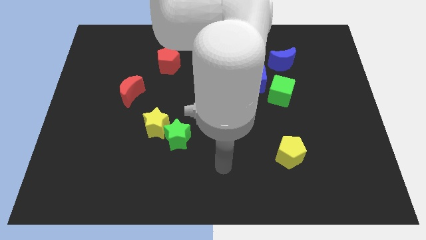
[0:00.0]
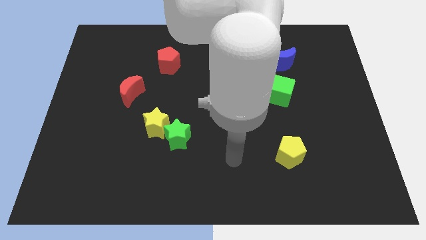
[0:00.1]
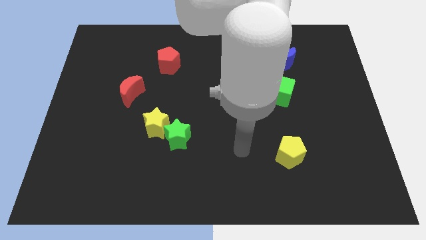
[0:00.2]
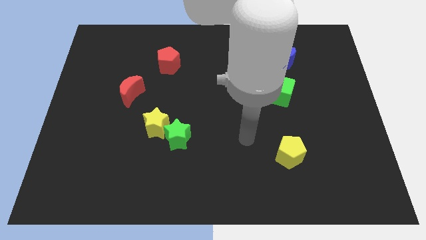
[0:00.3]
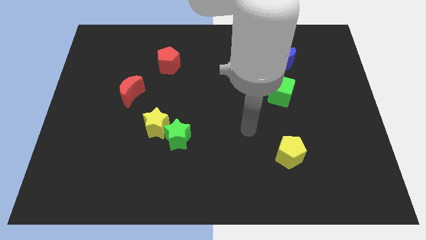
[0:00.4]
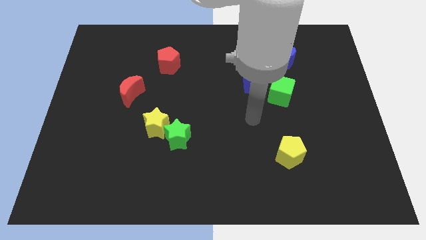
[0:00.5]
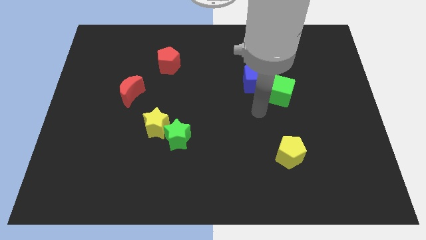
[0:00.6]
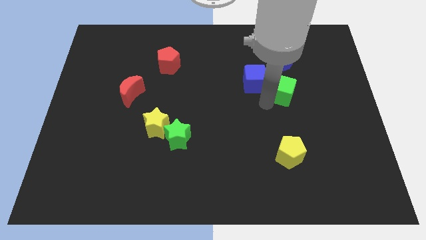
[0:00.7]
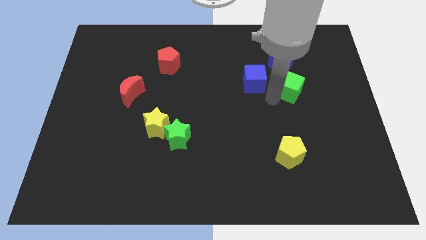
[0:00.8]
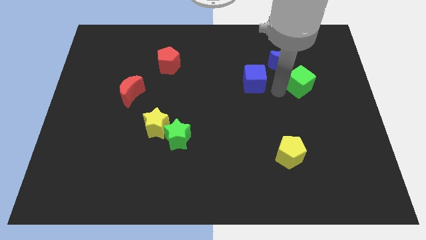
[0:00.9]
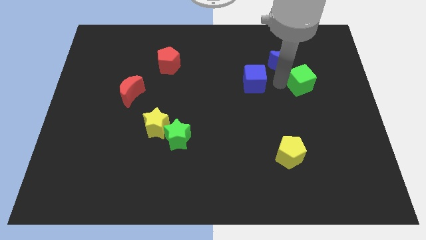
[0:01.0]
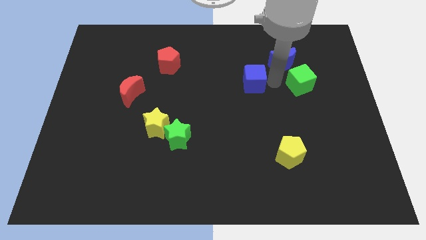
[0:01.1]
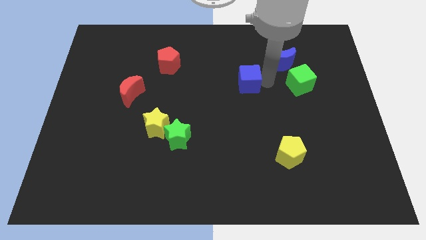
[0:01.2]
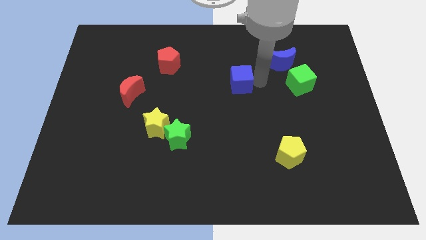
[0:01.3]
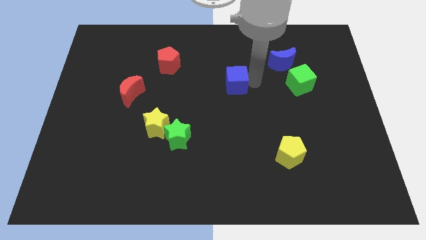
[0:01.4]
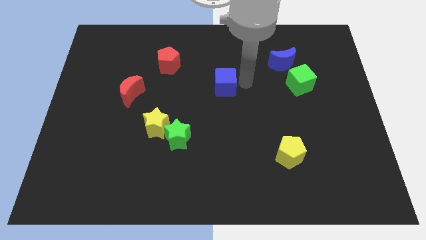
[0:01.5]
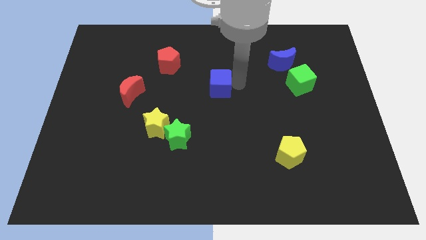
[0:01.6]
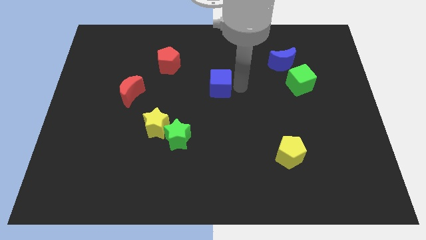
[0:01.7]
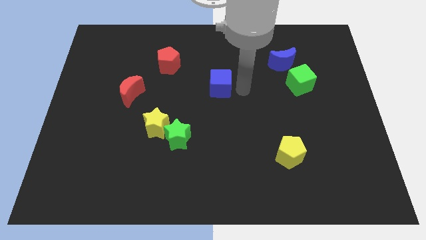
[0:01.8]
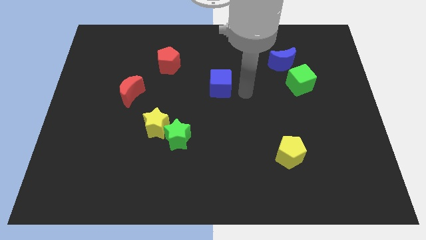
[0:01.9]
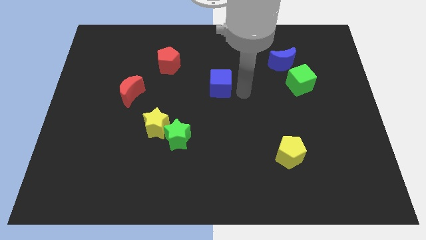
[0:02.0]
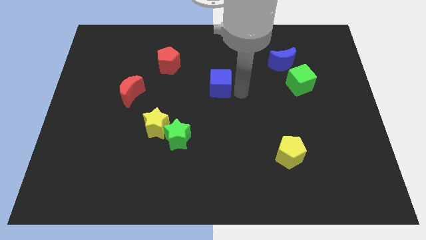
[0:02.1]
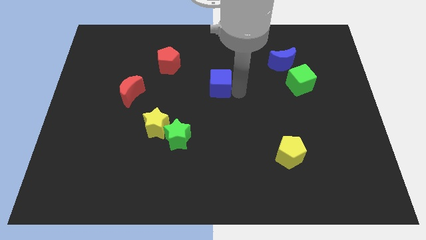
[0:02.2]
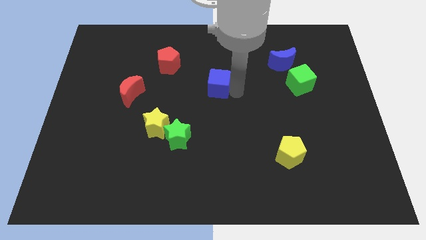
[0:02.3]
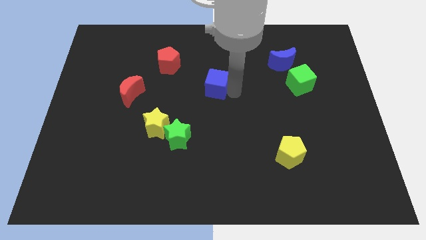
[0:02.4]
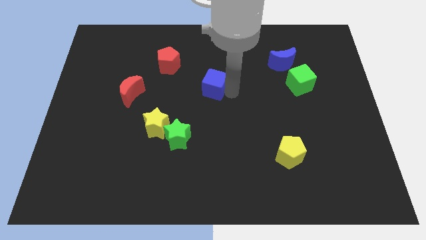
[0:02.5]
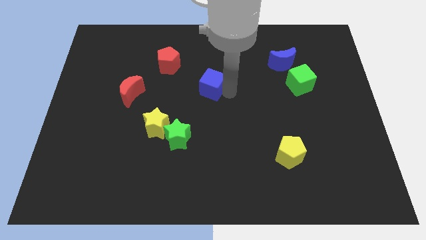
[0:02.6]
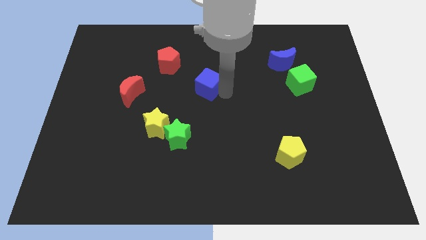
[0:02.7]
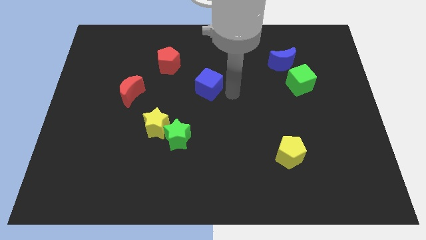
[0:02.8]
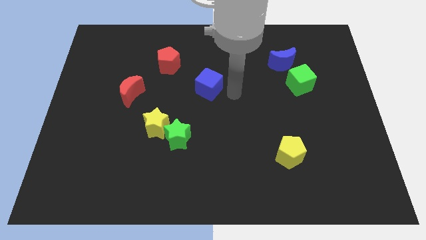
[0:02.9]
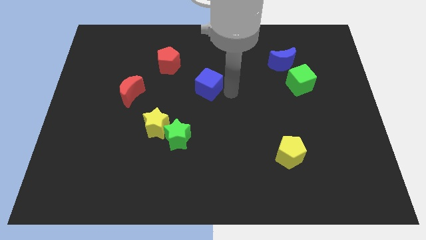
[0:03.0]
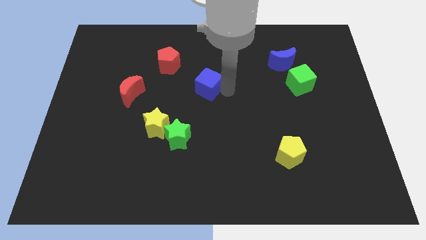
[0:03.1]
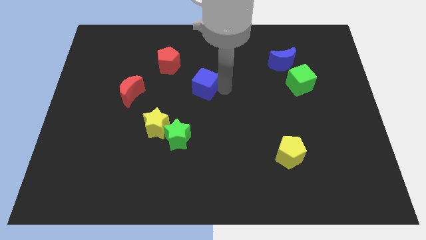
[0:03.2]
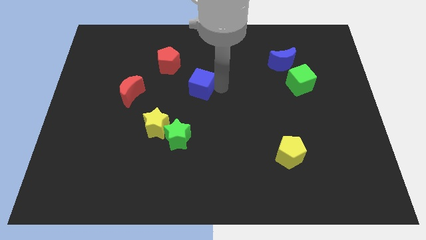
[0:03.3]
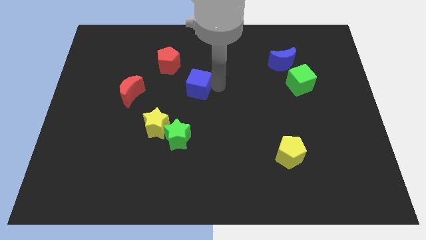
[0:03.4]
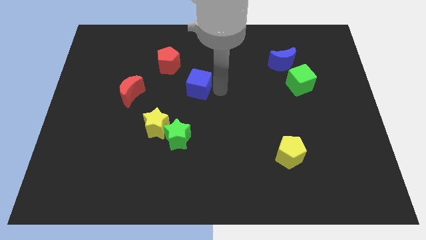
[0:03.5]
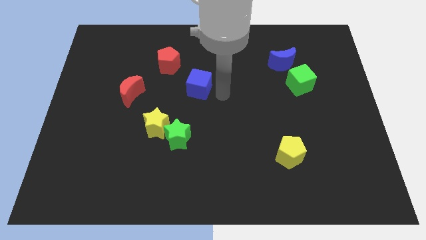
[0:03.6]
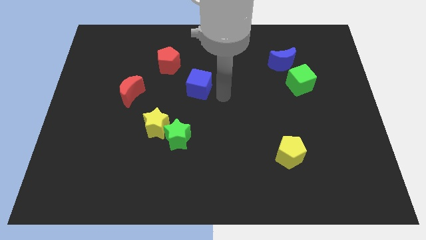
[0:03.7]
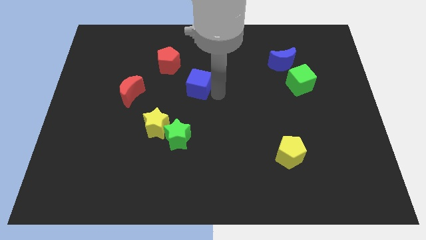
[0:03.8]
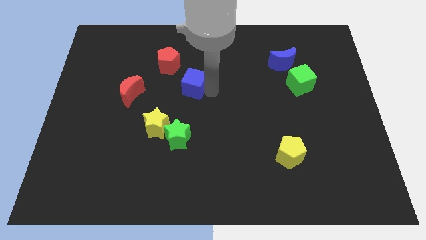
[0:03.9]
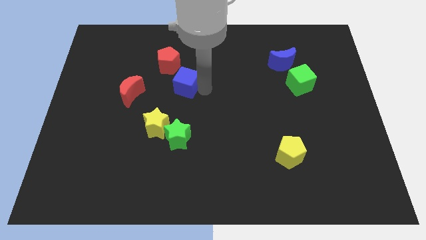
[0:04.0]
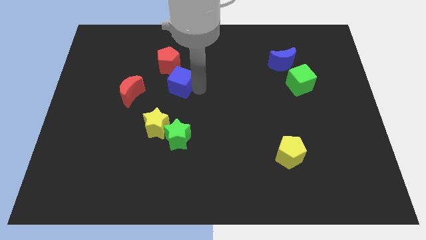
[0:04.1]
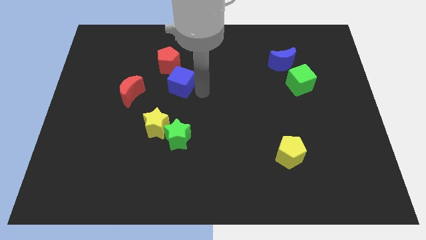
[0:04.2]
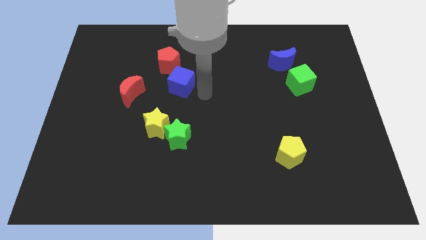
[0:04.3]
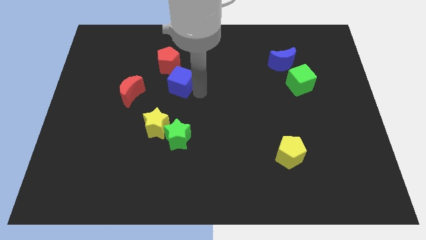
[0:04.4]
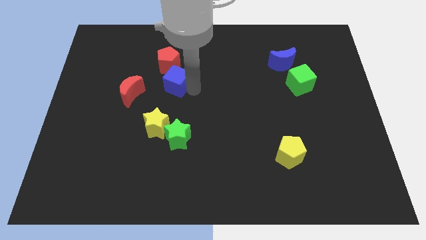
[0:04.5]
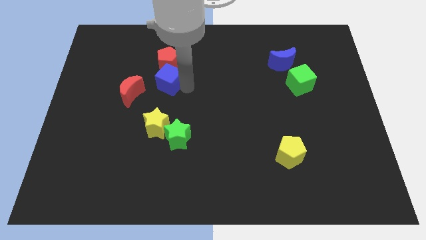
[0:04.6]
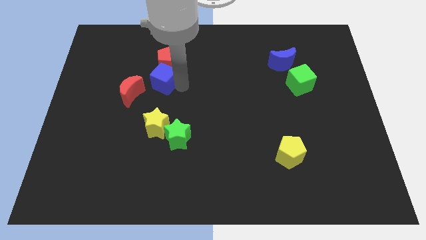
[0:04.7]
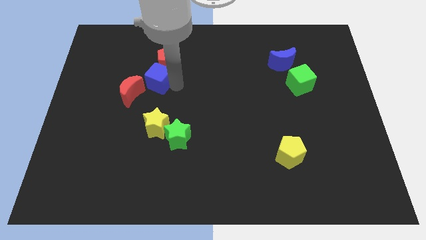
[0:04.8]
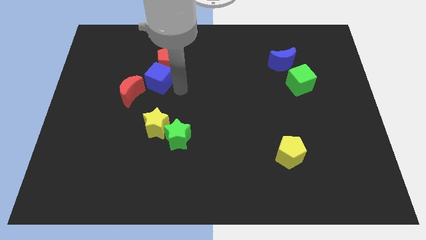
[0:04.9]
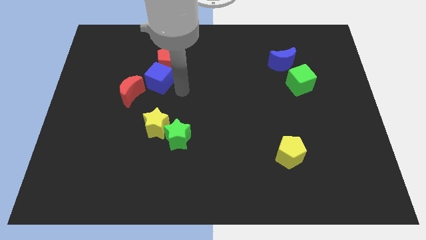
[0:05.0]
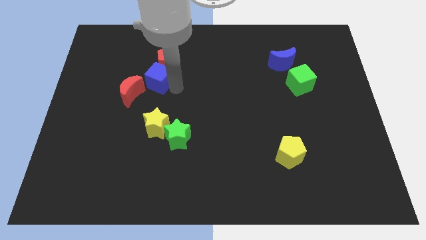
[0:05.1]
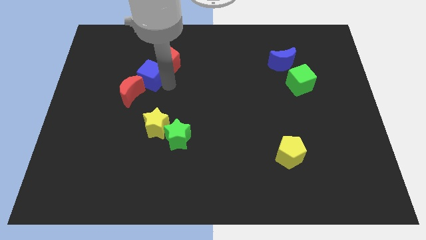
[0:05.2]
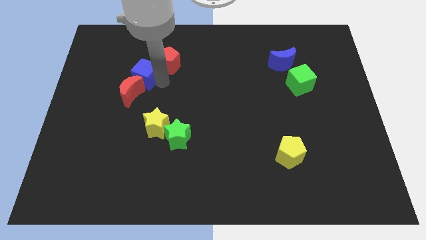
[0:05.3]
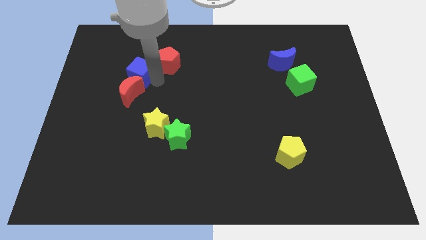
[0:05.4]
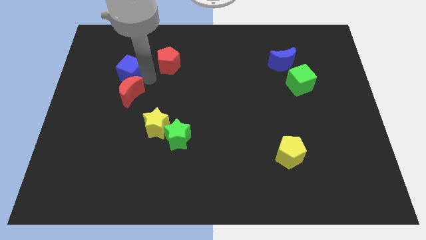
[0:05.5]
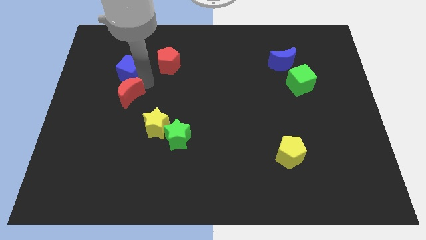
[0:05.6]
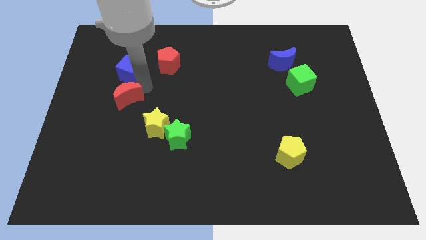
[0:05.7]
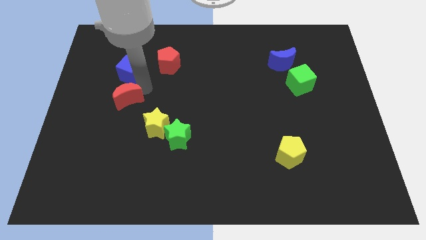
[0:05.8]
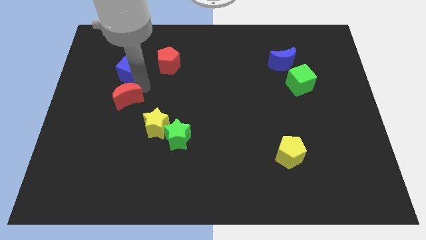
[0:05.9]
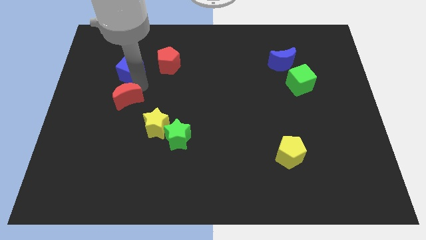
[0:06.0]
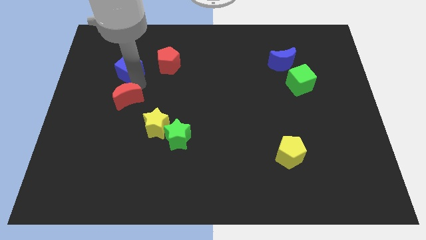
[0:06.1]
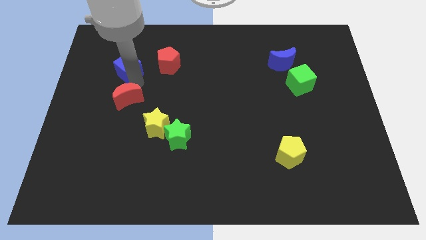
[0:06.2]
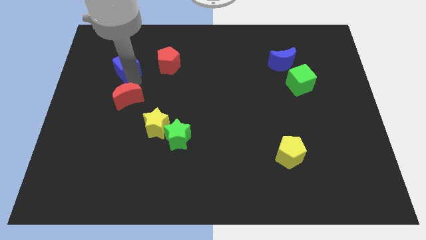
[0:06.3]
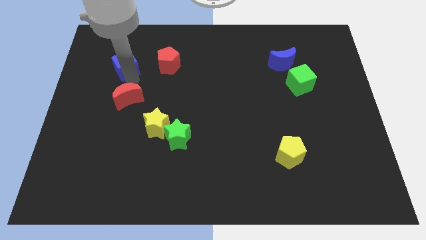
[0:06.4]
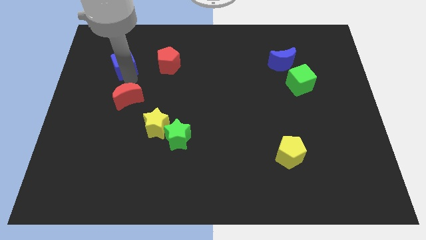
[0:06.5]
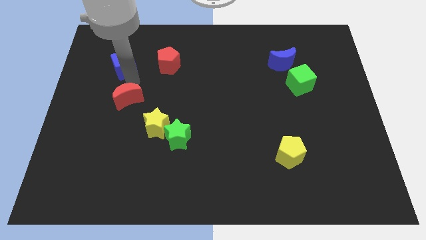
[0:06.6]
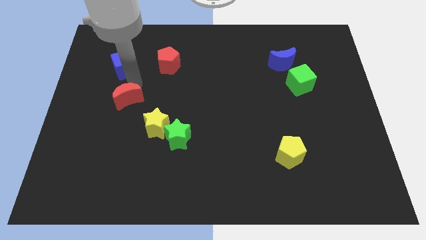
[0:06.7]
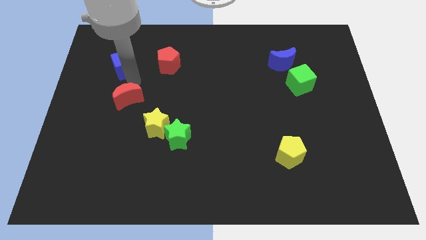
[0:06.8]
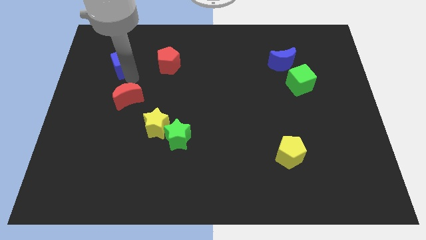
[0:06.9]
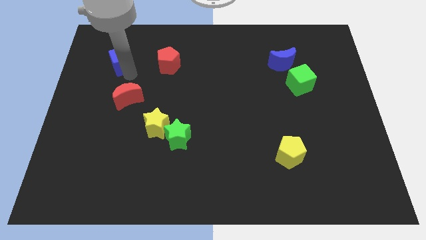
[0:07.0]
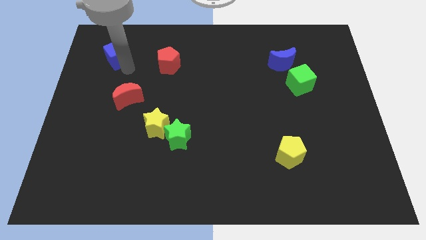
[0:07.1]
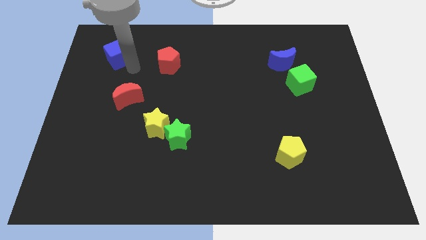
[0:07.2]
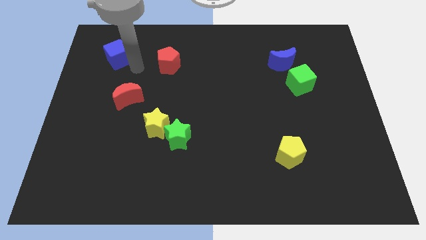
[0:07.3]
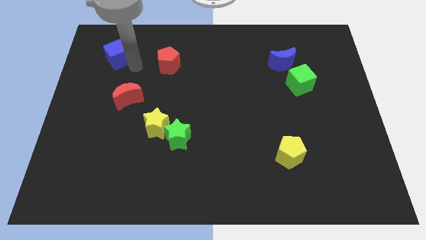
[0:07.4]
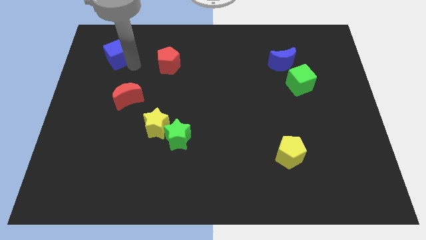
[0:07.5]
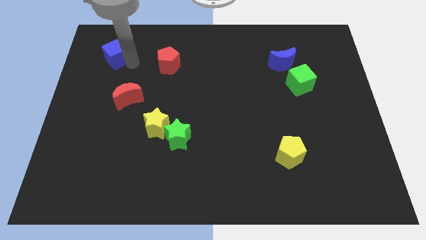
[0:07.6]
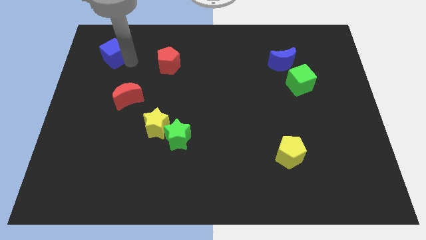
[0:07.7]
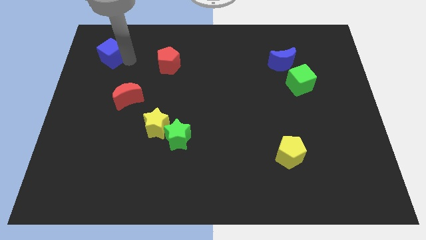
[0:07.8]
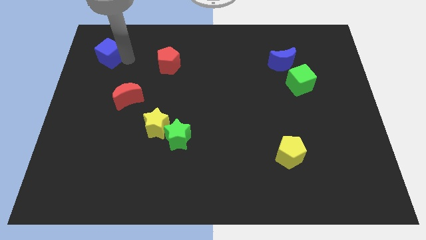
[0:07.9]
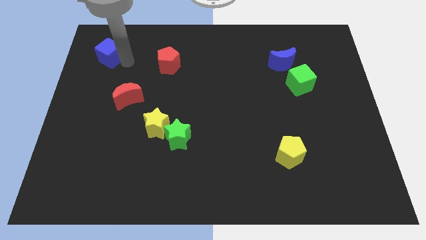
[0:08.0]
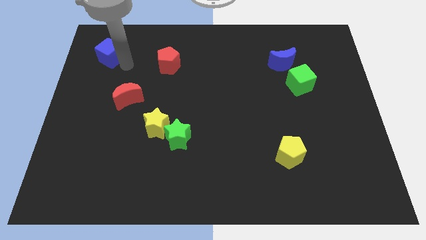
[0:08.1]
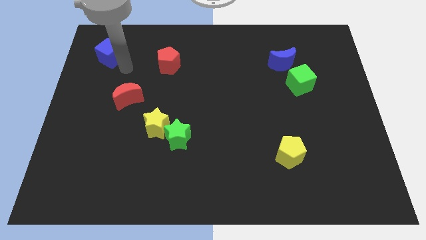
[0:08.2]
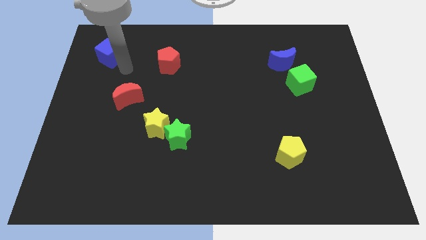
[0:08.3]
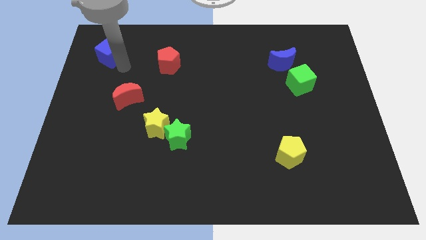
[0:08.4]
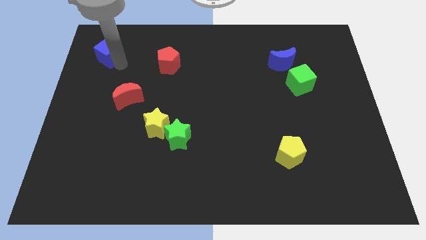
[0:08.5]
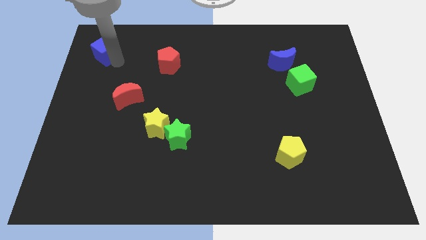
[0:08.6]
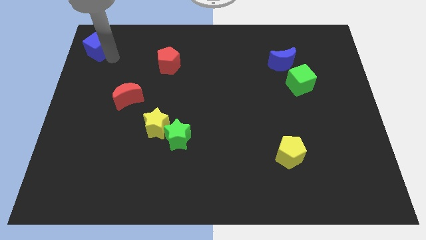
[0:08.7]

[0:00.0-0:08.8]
push the blue cube to the top left corner
